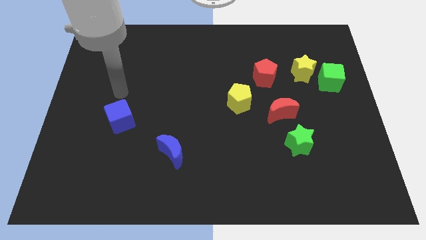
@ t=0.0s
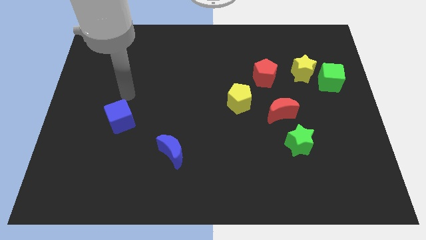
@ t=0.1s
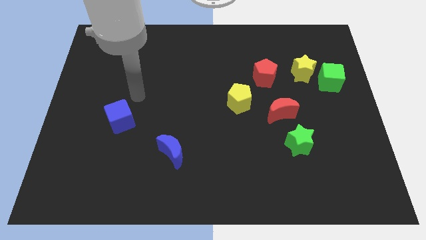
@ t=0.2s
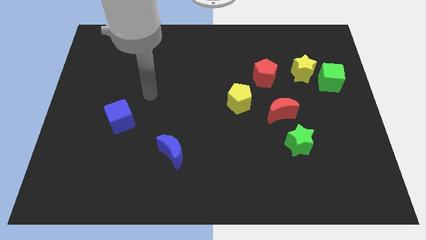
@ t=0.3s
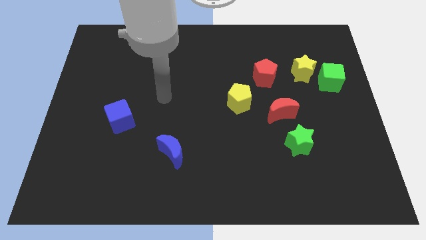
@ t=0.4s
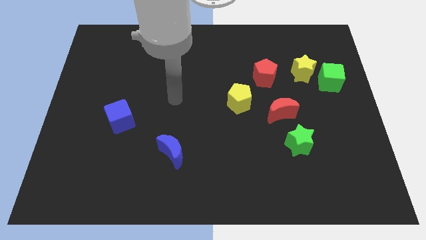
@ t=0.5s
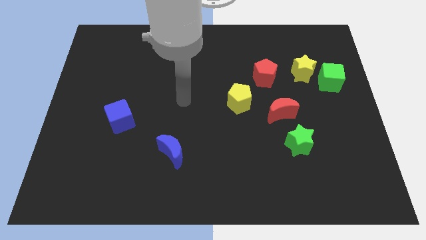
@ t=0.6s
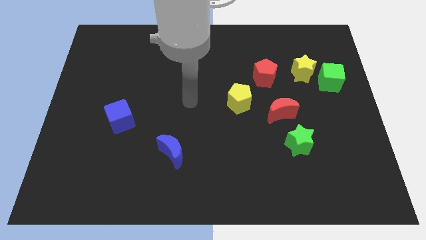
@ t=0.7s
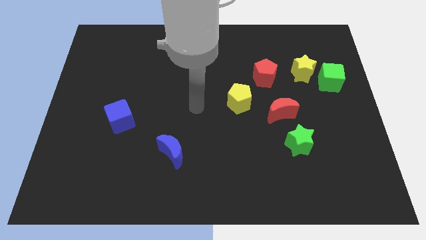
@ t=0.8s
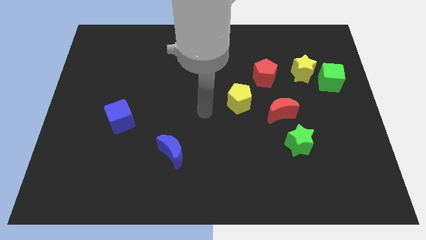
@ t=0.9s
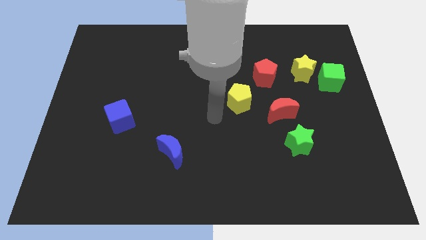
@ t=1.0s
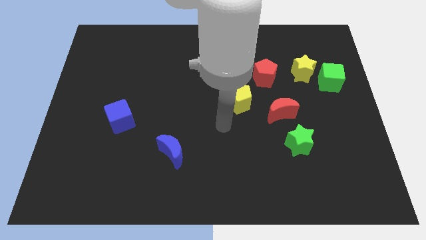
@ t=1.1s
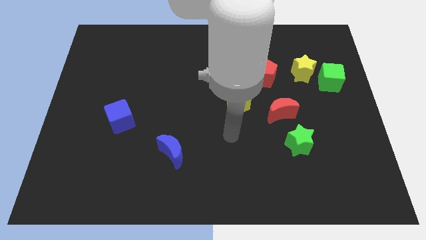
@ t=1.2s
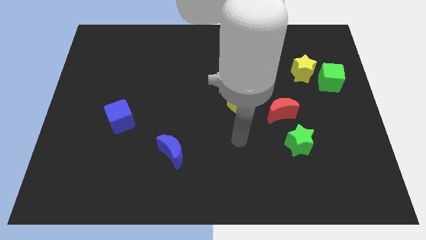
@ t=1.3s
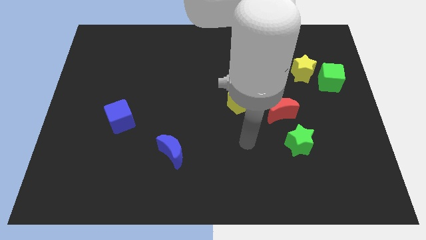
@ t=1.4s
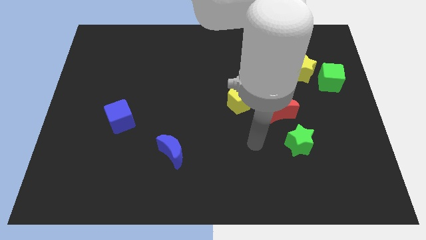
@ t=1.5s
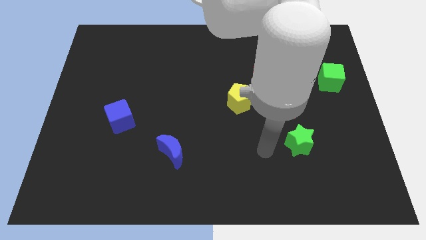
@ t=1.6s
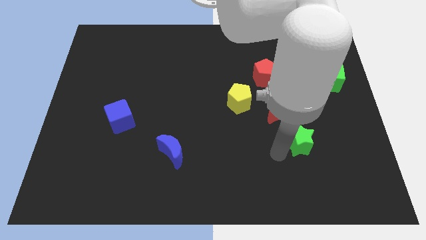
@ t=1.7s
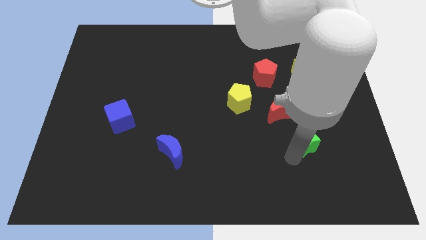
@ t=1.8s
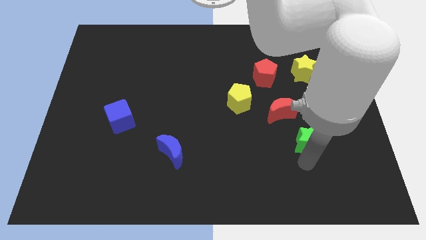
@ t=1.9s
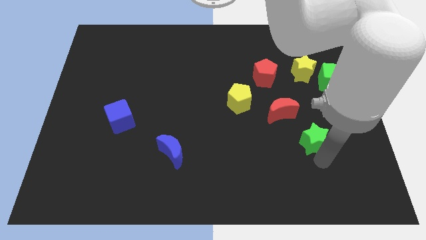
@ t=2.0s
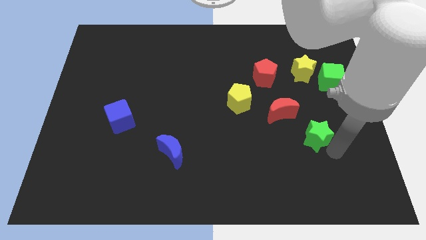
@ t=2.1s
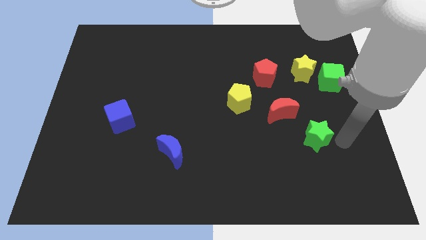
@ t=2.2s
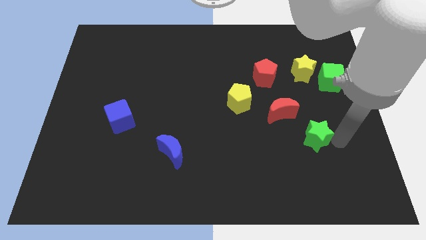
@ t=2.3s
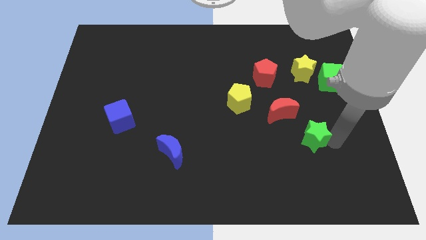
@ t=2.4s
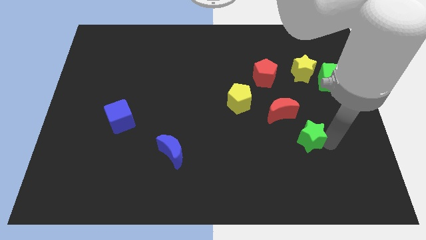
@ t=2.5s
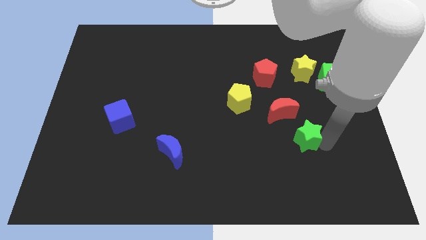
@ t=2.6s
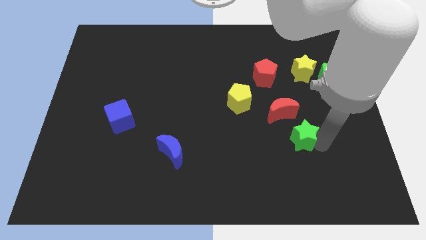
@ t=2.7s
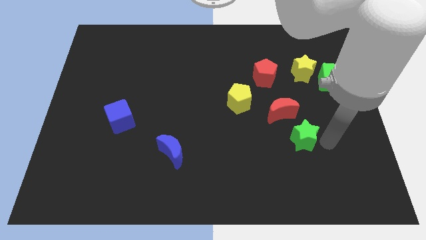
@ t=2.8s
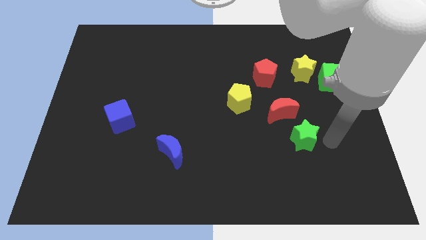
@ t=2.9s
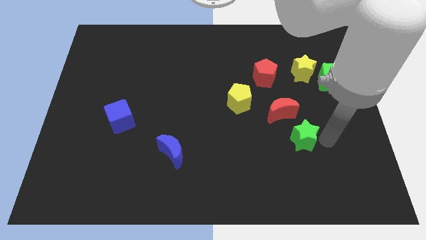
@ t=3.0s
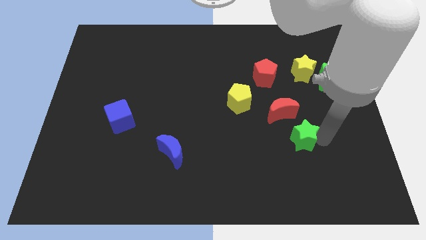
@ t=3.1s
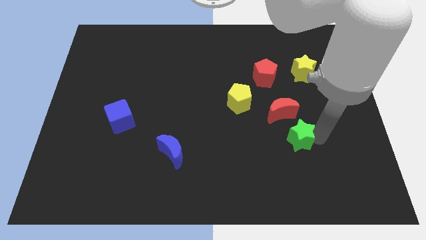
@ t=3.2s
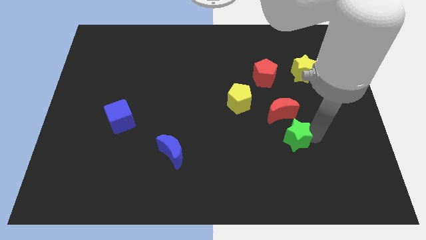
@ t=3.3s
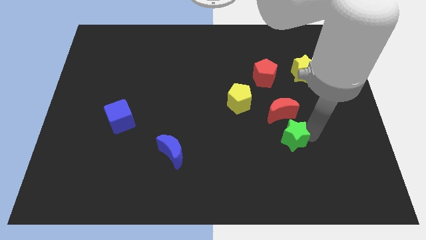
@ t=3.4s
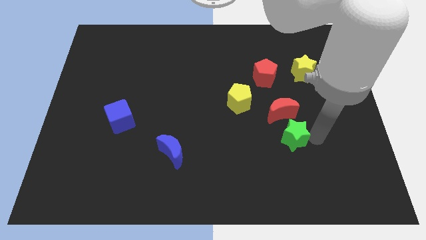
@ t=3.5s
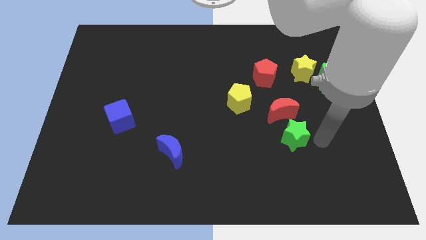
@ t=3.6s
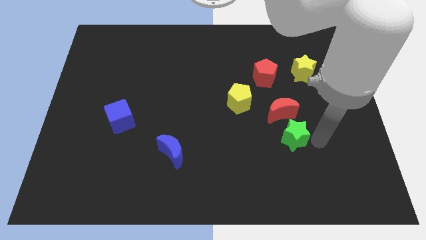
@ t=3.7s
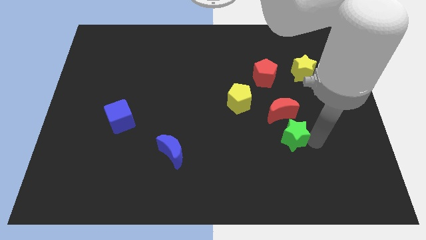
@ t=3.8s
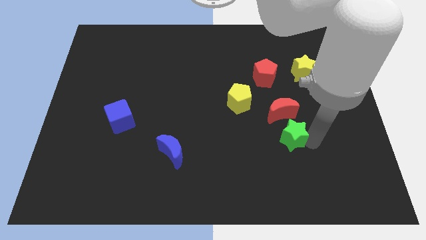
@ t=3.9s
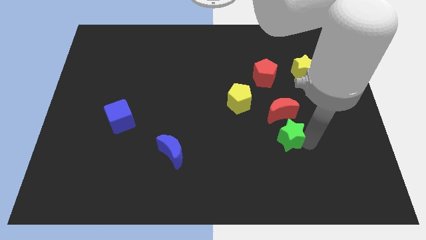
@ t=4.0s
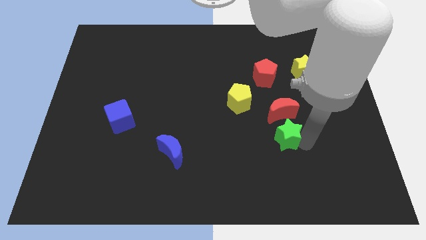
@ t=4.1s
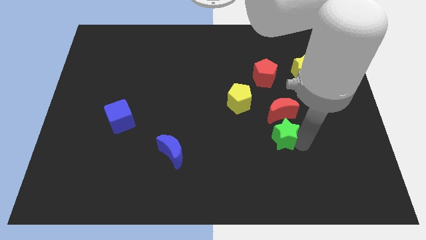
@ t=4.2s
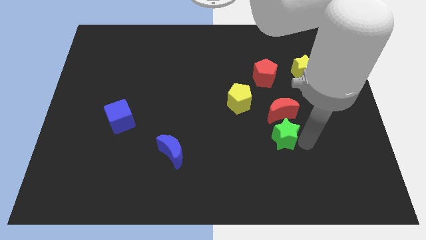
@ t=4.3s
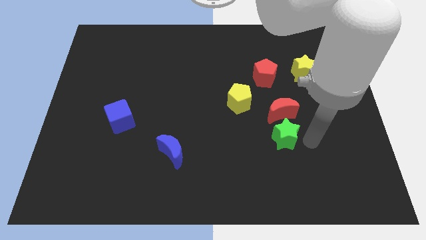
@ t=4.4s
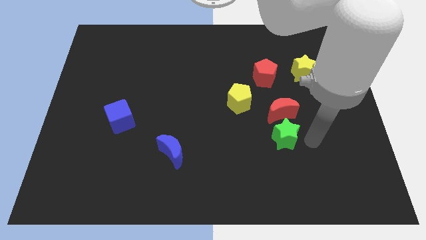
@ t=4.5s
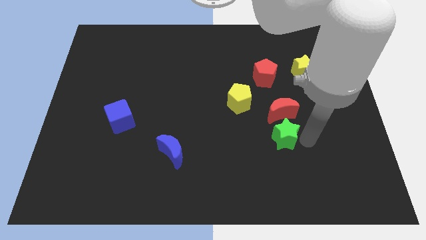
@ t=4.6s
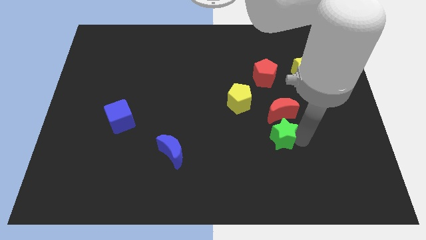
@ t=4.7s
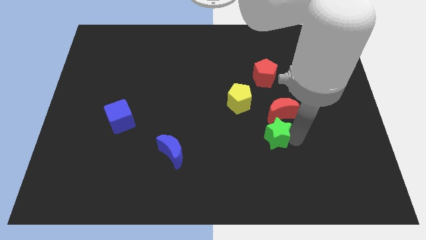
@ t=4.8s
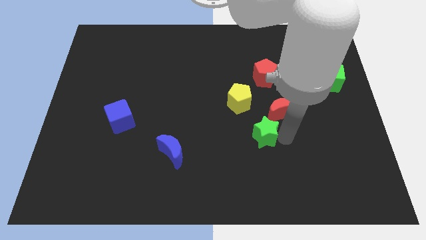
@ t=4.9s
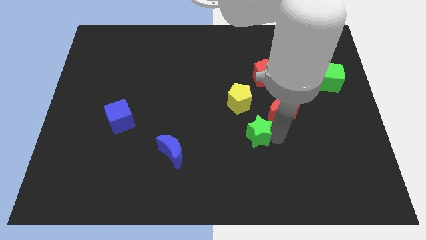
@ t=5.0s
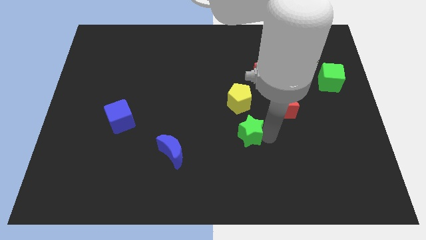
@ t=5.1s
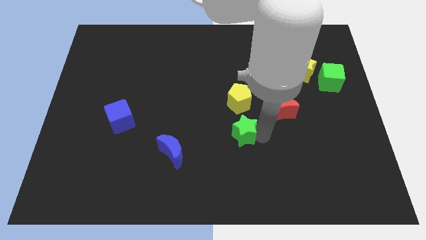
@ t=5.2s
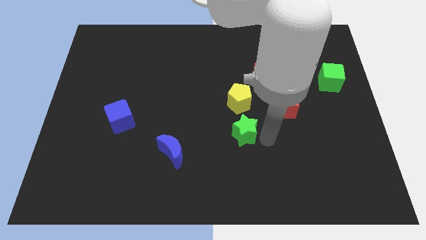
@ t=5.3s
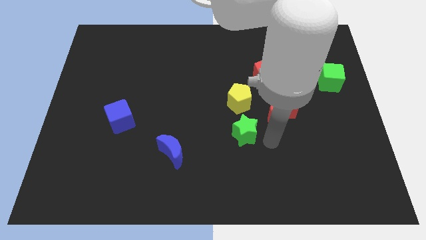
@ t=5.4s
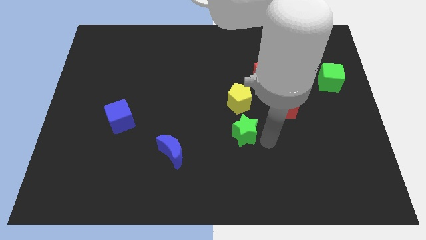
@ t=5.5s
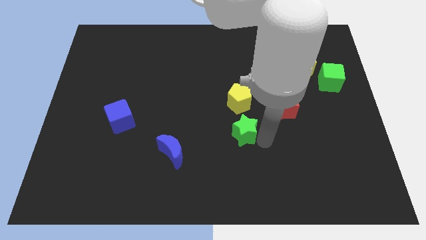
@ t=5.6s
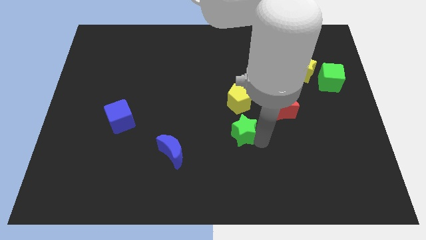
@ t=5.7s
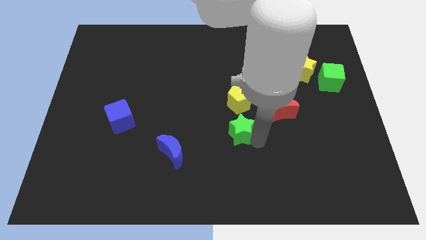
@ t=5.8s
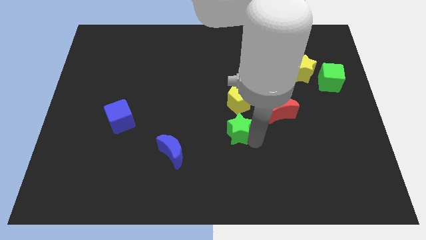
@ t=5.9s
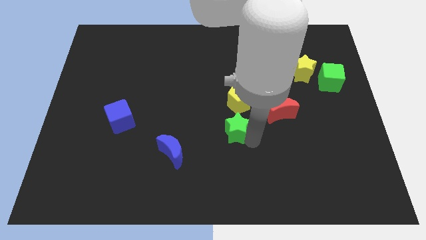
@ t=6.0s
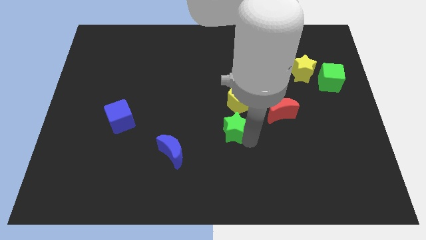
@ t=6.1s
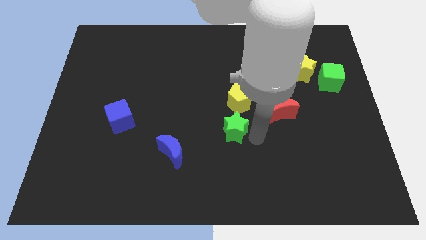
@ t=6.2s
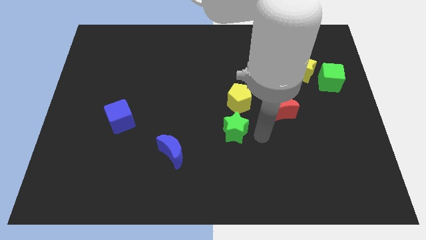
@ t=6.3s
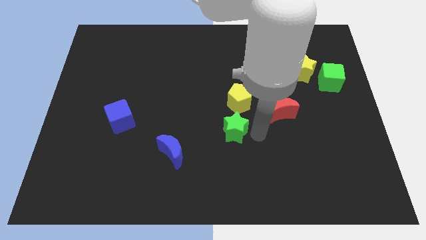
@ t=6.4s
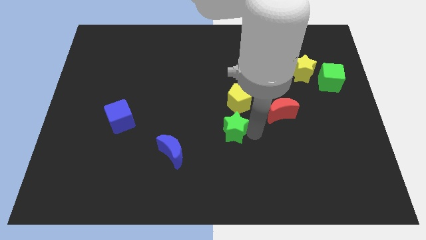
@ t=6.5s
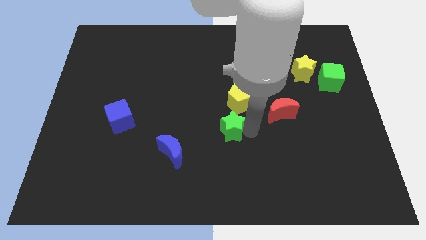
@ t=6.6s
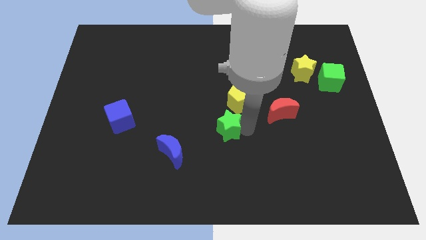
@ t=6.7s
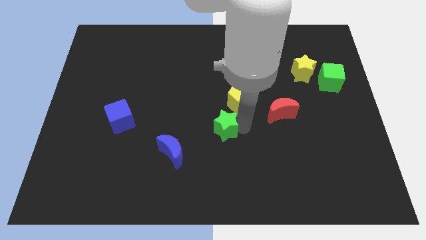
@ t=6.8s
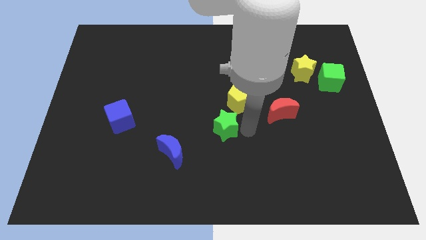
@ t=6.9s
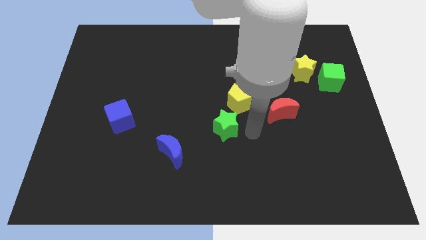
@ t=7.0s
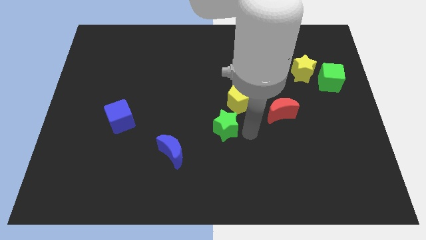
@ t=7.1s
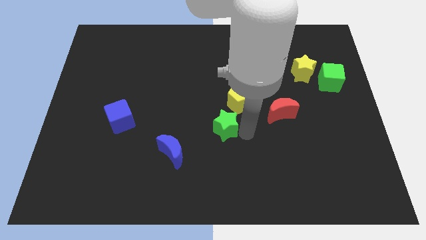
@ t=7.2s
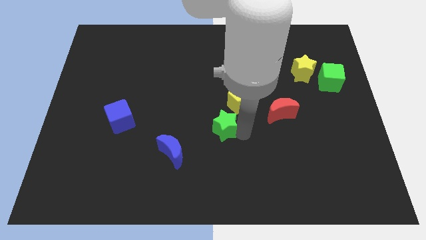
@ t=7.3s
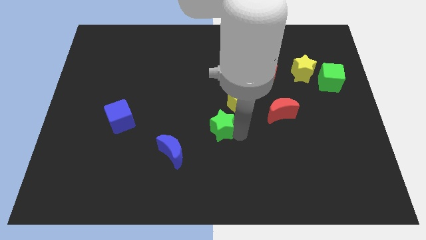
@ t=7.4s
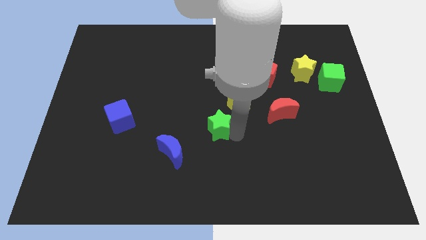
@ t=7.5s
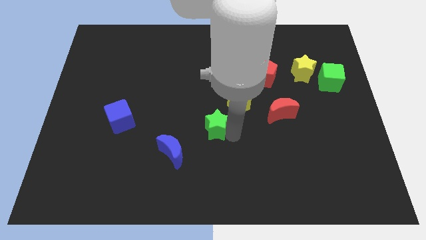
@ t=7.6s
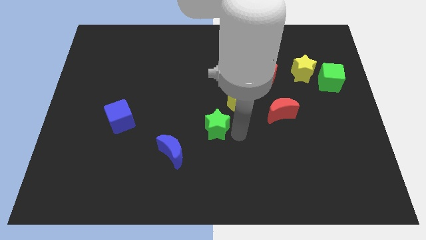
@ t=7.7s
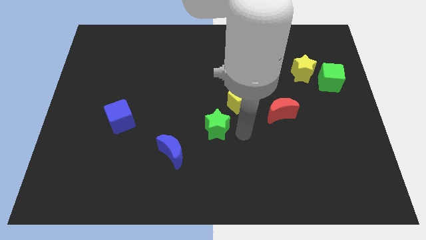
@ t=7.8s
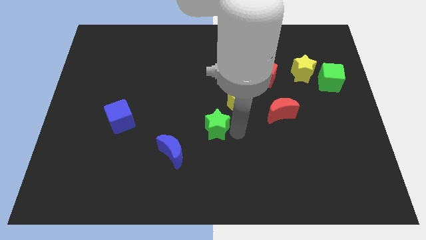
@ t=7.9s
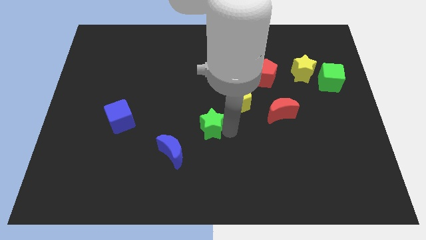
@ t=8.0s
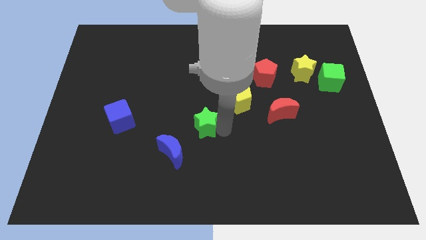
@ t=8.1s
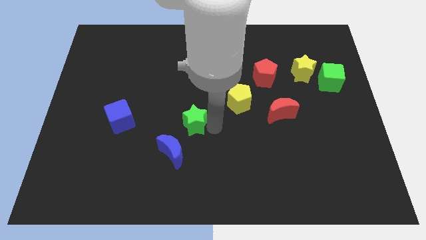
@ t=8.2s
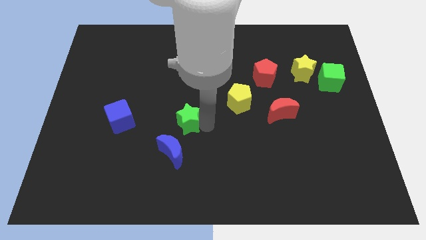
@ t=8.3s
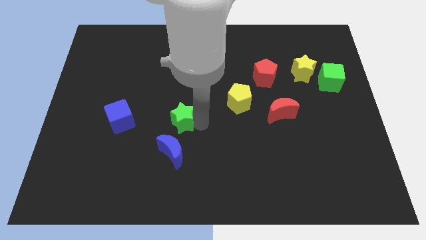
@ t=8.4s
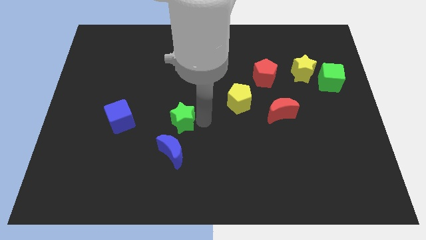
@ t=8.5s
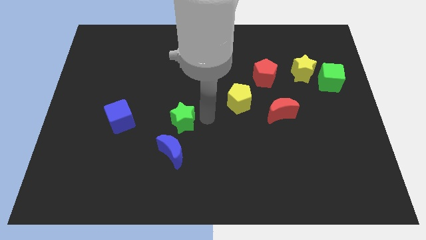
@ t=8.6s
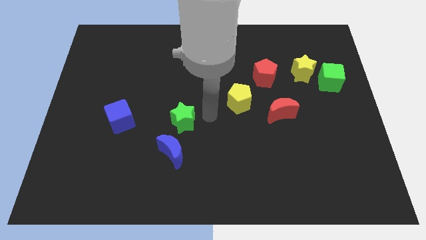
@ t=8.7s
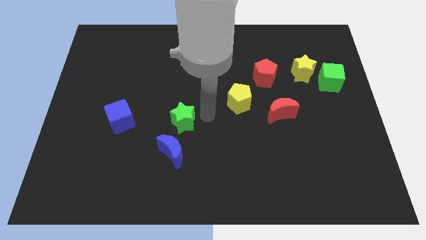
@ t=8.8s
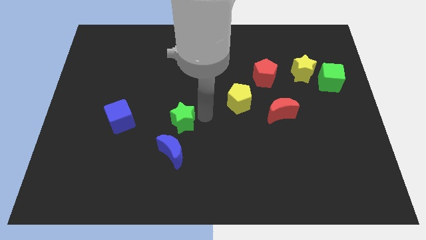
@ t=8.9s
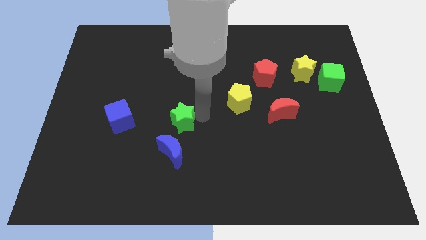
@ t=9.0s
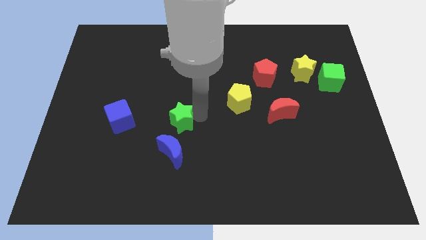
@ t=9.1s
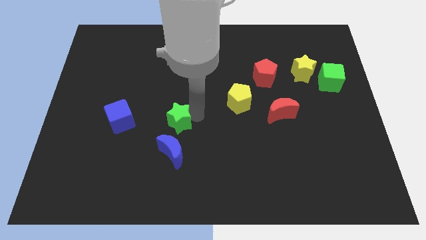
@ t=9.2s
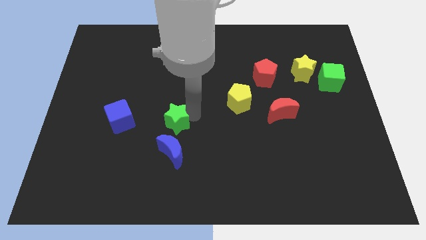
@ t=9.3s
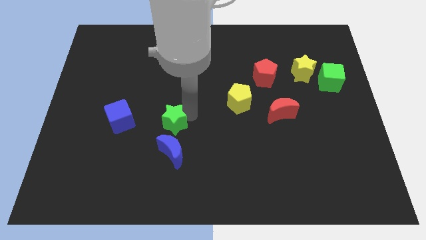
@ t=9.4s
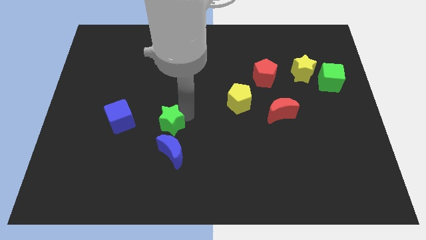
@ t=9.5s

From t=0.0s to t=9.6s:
put the green star to the top left of the blue moon
